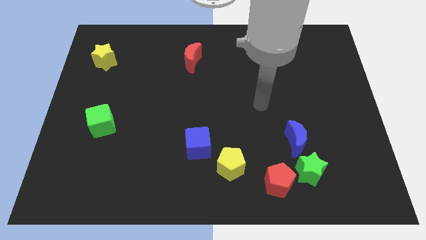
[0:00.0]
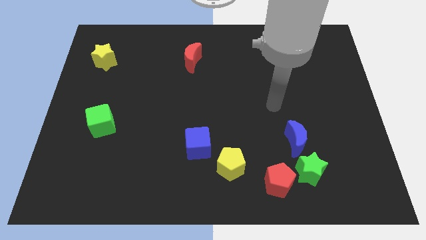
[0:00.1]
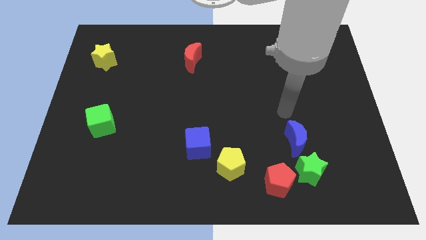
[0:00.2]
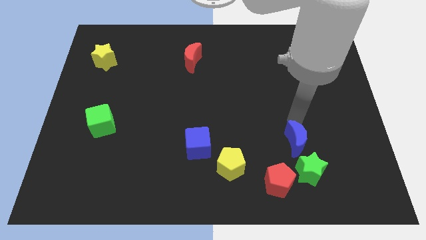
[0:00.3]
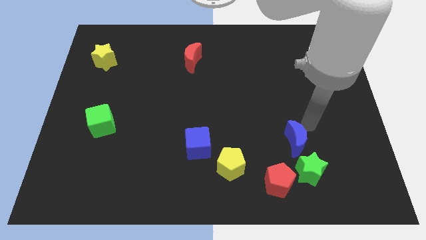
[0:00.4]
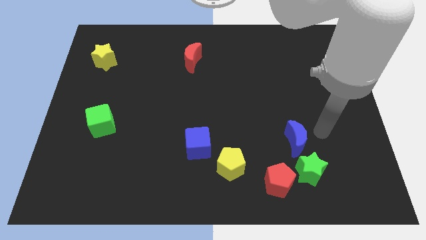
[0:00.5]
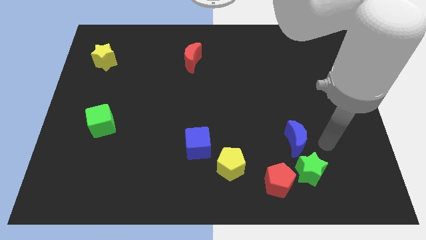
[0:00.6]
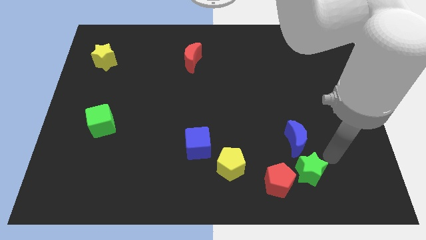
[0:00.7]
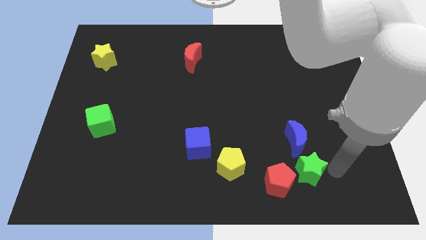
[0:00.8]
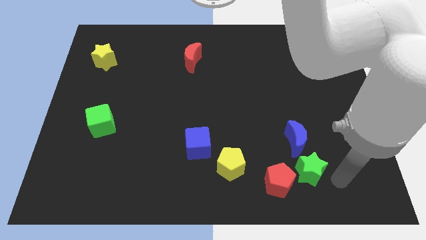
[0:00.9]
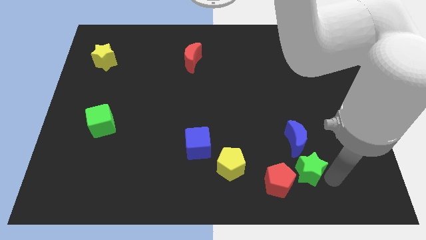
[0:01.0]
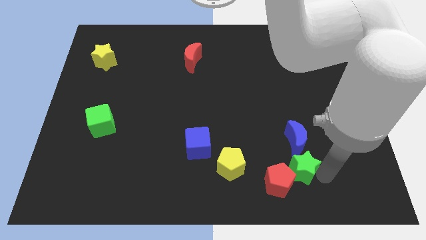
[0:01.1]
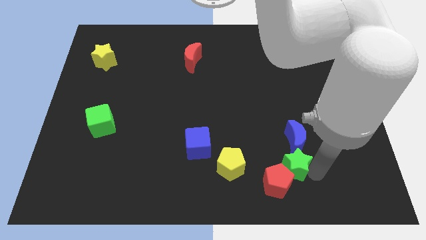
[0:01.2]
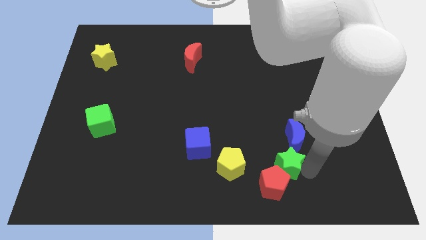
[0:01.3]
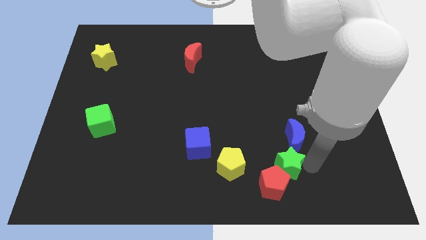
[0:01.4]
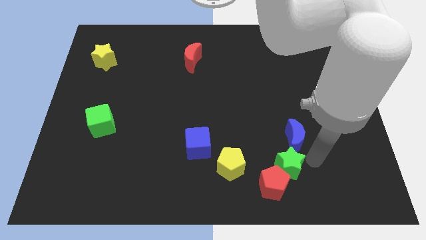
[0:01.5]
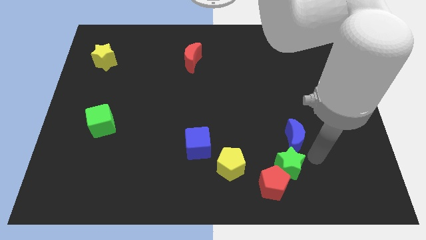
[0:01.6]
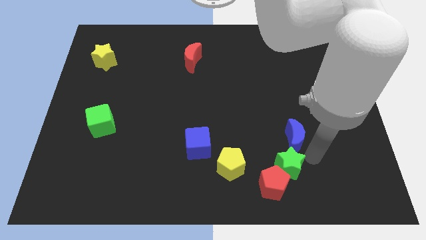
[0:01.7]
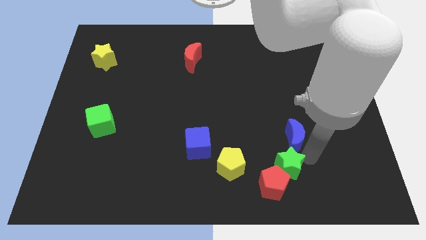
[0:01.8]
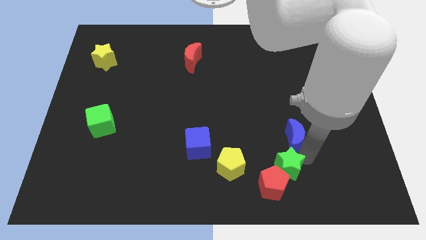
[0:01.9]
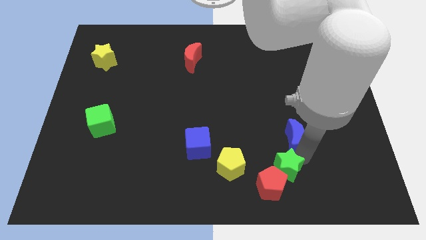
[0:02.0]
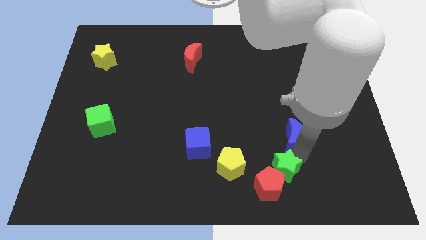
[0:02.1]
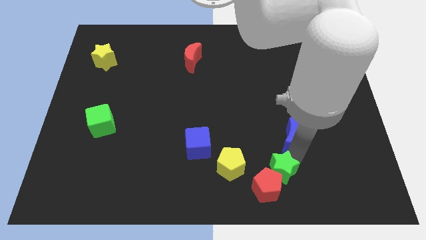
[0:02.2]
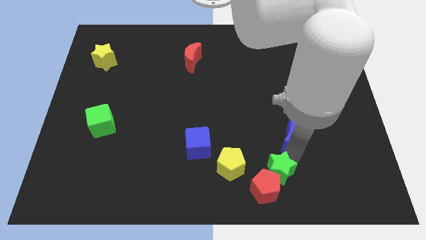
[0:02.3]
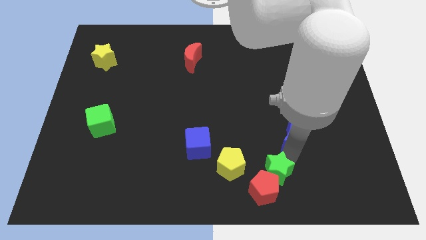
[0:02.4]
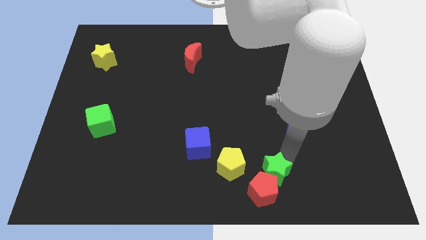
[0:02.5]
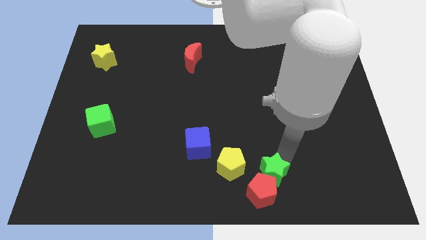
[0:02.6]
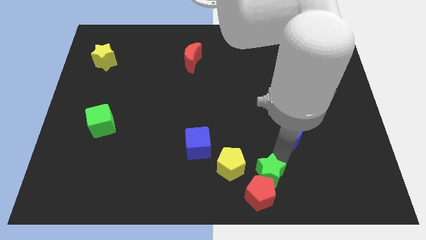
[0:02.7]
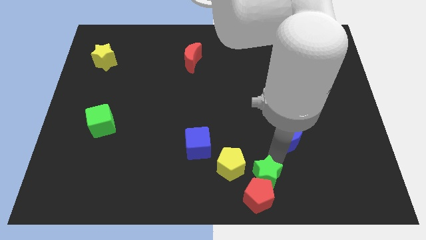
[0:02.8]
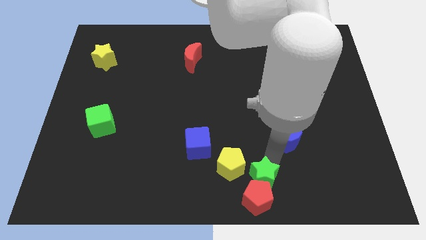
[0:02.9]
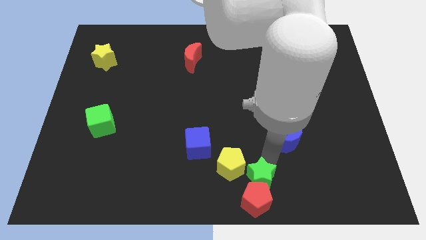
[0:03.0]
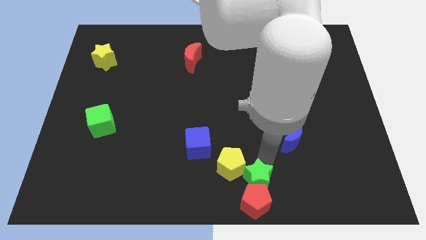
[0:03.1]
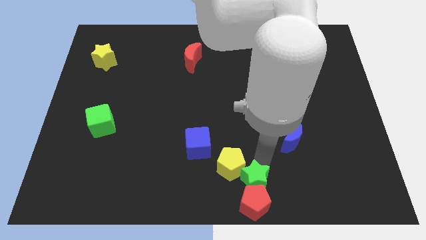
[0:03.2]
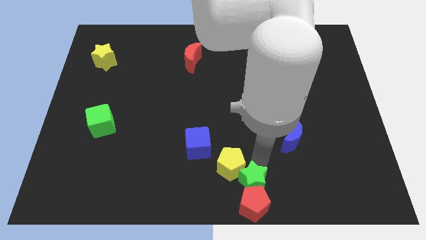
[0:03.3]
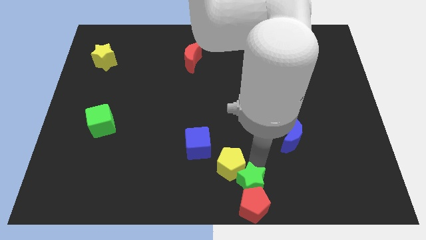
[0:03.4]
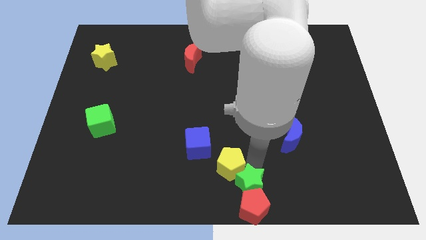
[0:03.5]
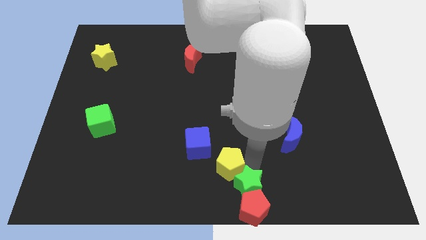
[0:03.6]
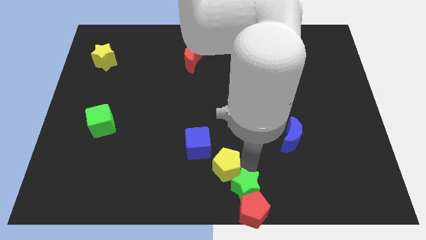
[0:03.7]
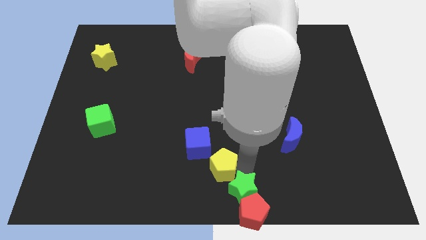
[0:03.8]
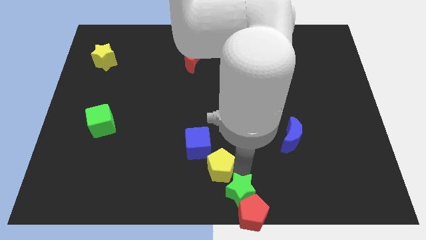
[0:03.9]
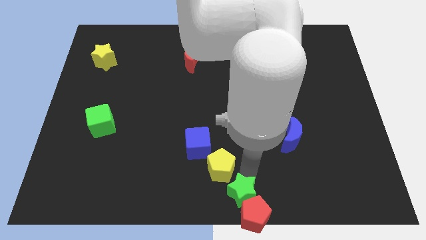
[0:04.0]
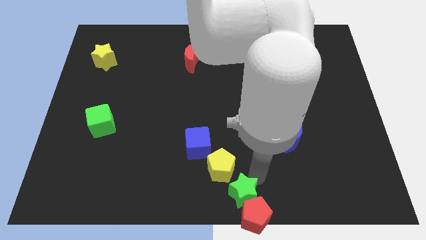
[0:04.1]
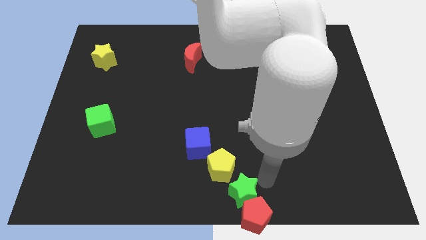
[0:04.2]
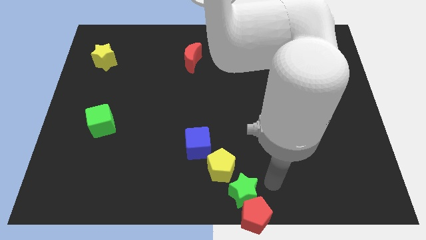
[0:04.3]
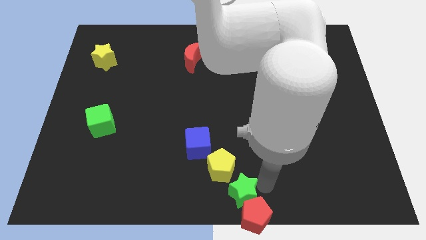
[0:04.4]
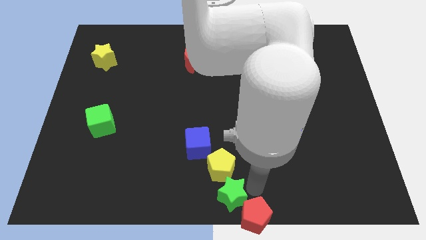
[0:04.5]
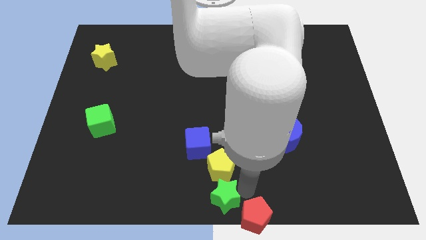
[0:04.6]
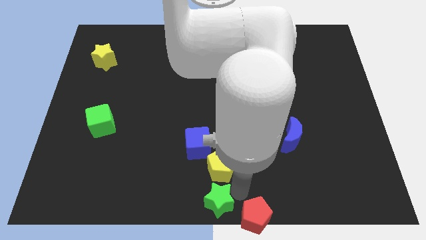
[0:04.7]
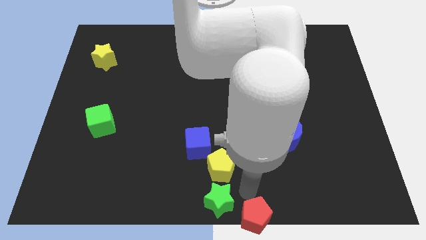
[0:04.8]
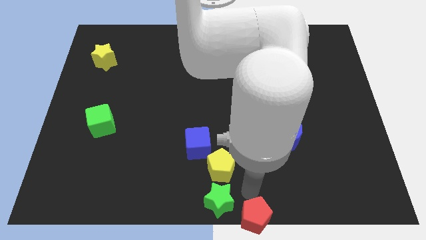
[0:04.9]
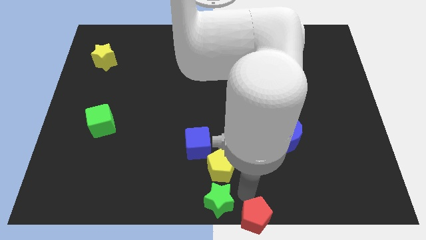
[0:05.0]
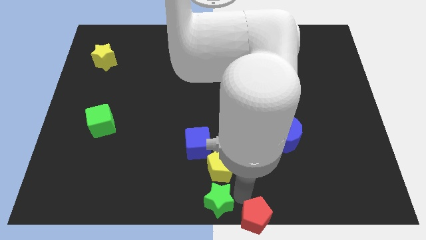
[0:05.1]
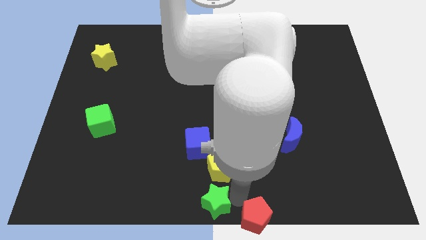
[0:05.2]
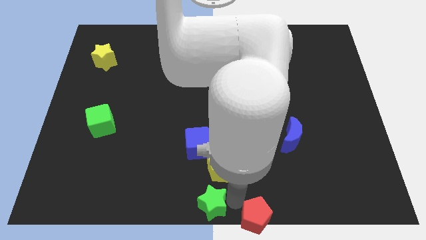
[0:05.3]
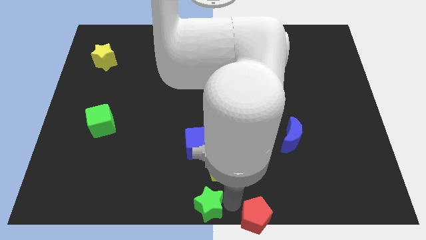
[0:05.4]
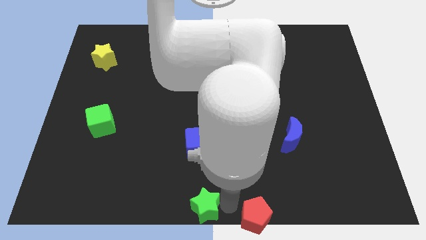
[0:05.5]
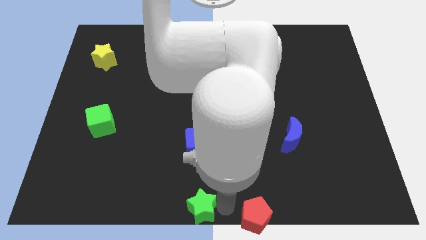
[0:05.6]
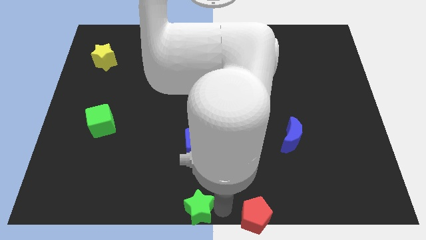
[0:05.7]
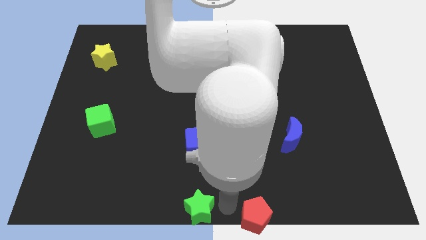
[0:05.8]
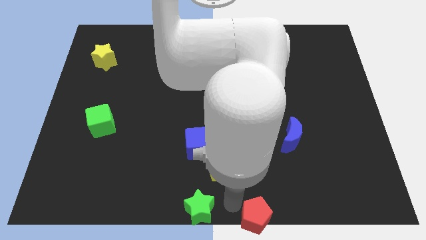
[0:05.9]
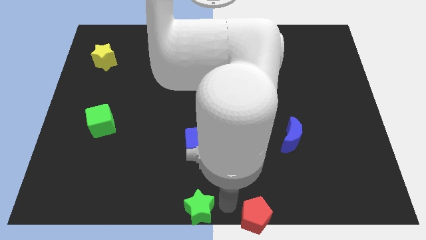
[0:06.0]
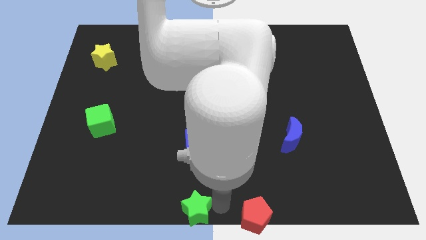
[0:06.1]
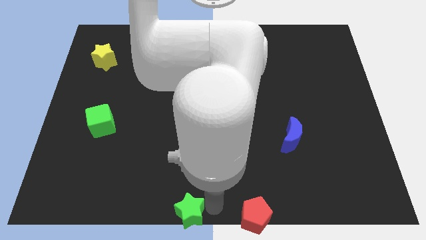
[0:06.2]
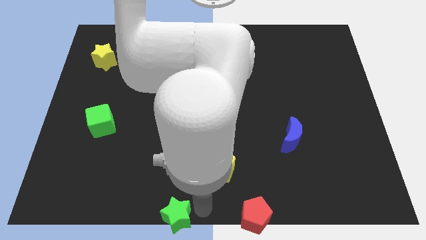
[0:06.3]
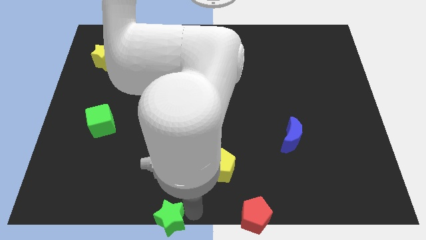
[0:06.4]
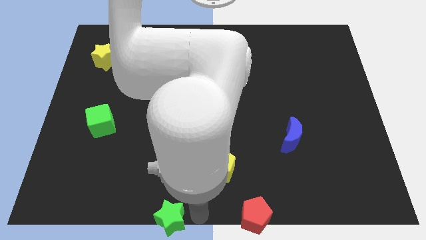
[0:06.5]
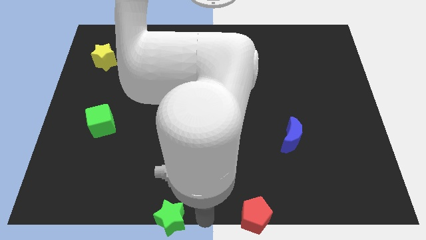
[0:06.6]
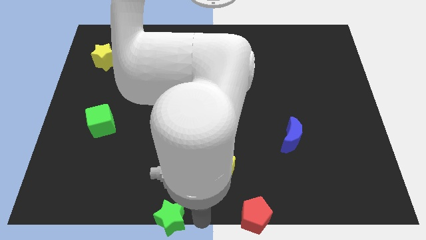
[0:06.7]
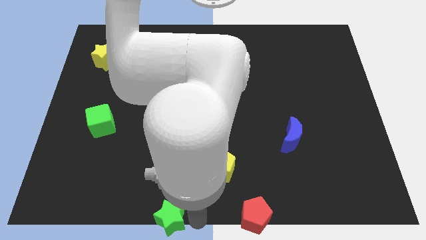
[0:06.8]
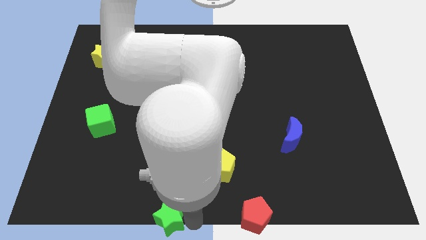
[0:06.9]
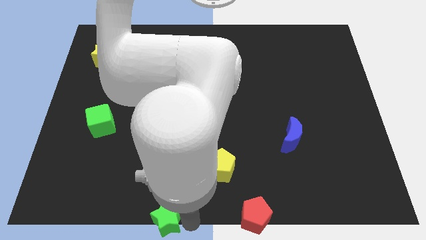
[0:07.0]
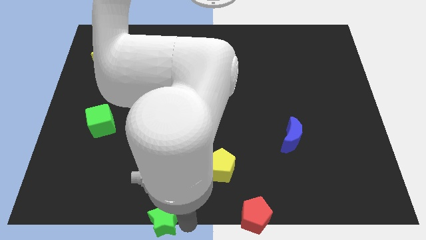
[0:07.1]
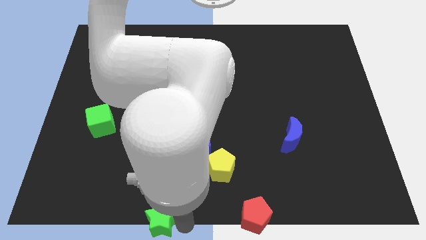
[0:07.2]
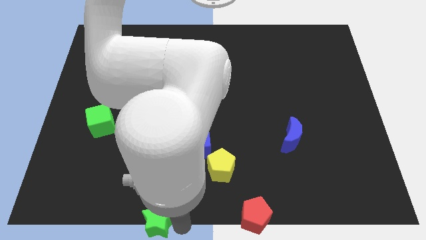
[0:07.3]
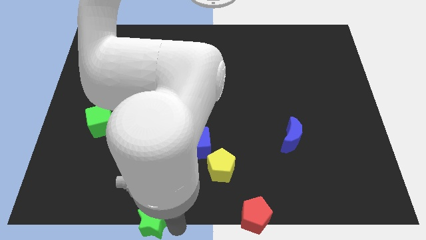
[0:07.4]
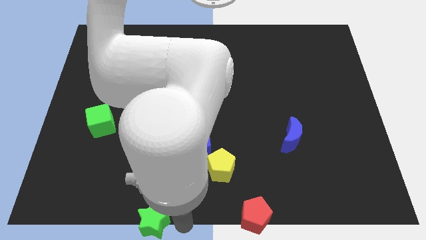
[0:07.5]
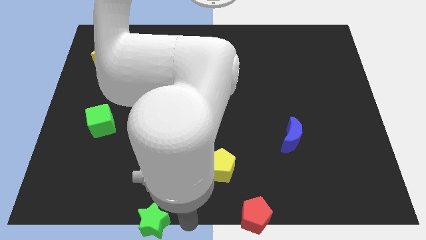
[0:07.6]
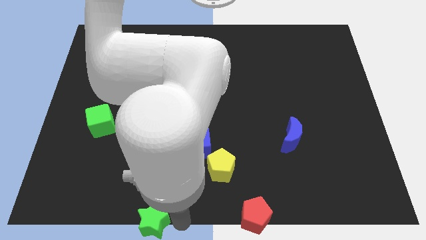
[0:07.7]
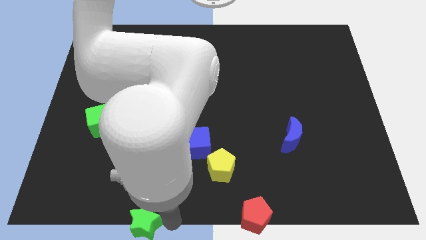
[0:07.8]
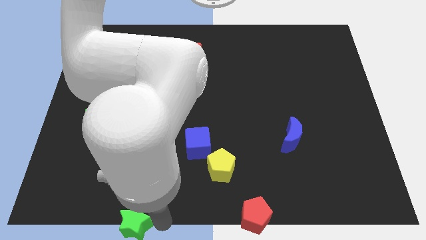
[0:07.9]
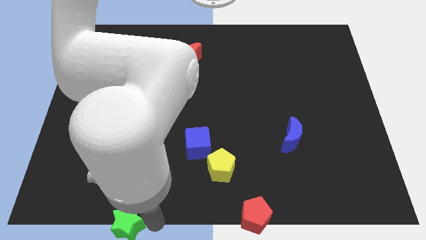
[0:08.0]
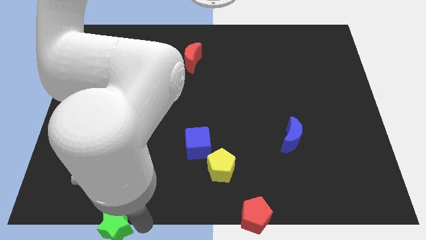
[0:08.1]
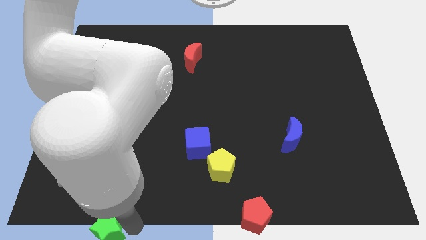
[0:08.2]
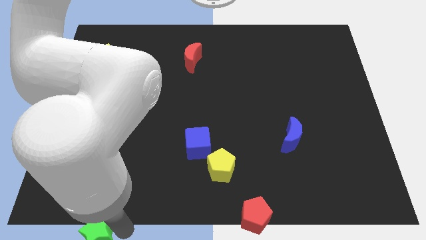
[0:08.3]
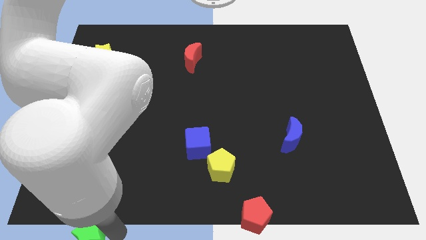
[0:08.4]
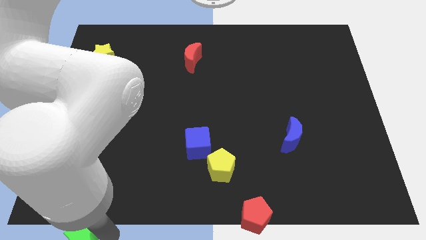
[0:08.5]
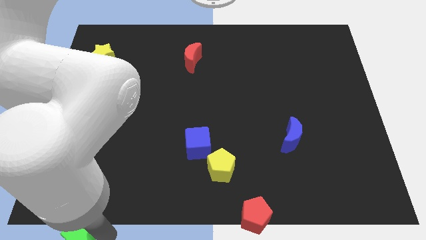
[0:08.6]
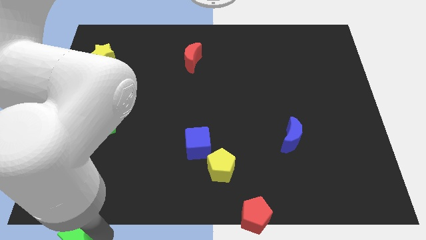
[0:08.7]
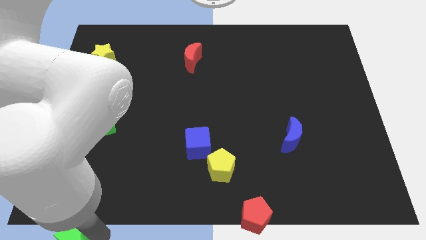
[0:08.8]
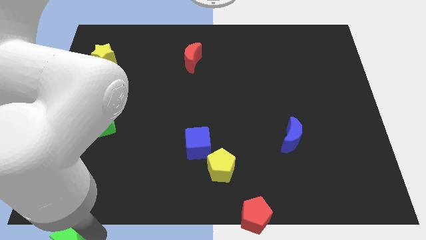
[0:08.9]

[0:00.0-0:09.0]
slide the green star to the bottom left of the board
